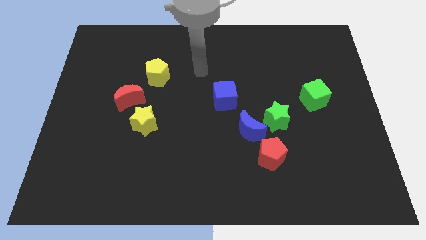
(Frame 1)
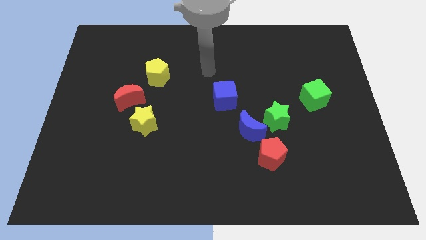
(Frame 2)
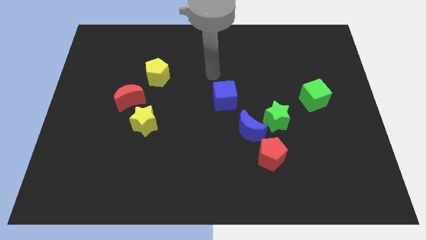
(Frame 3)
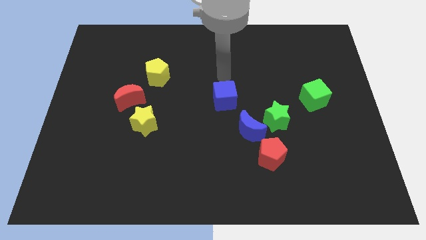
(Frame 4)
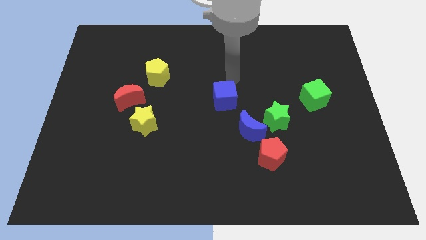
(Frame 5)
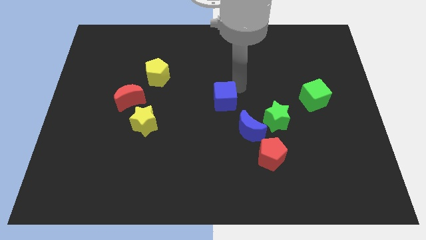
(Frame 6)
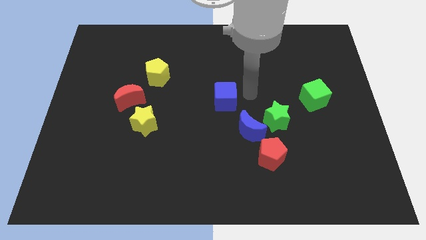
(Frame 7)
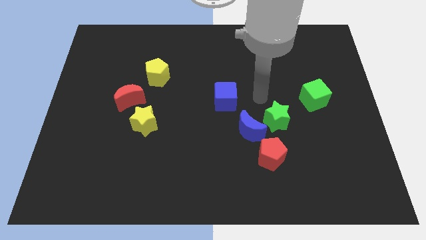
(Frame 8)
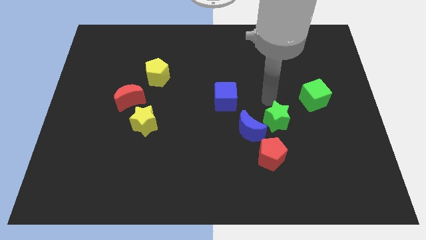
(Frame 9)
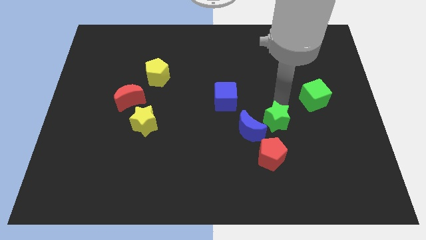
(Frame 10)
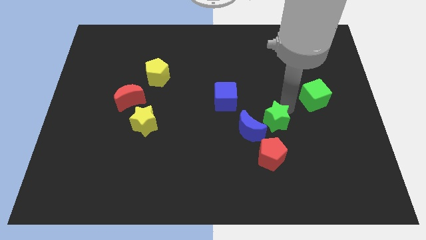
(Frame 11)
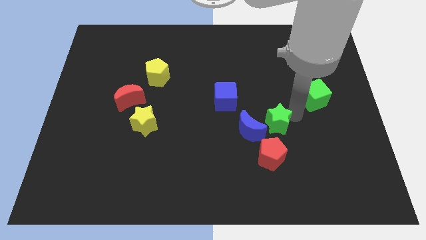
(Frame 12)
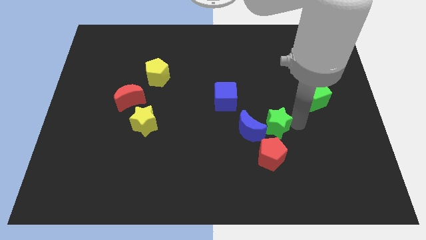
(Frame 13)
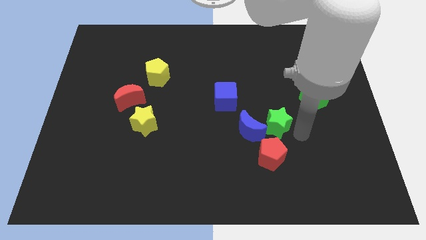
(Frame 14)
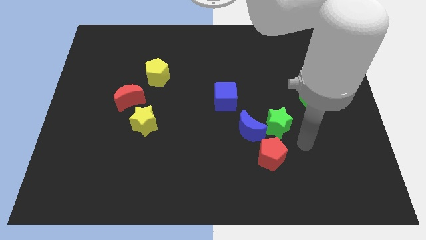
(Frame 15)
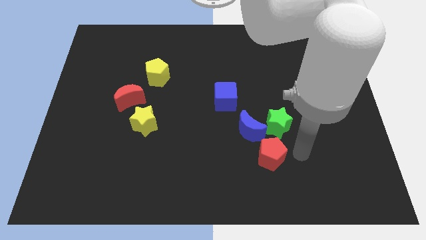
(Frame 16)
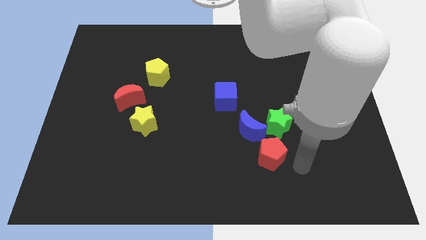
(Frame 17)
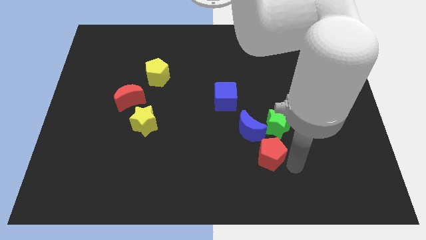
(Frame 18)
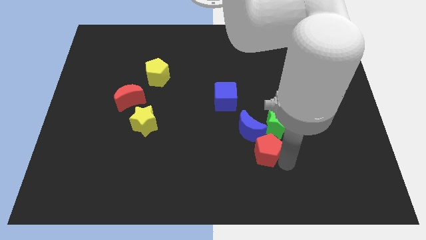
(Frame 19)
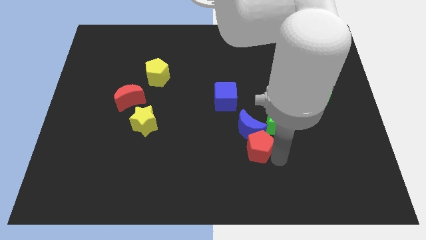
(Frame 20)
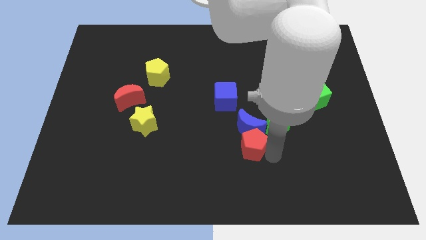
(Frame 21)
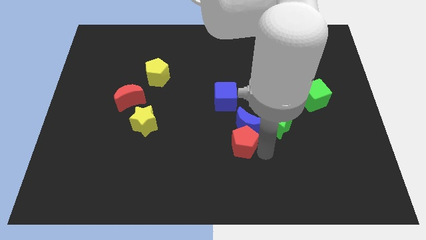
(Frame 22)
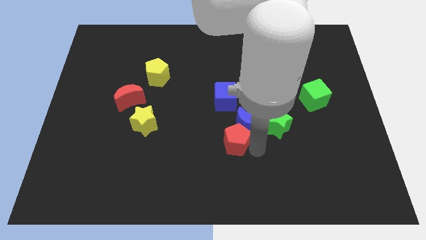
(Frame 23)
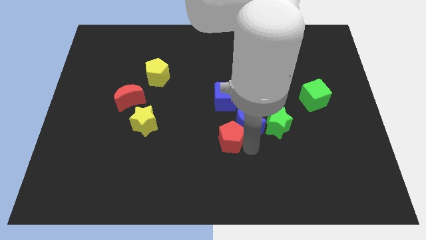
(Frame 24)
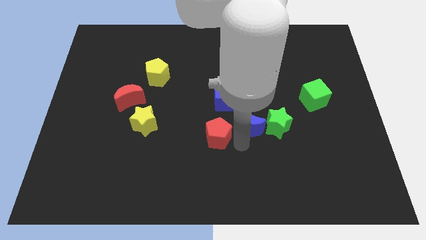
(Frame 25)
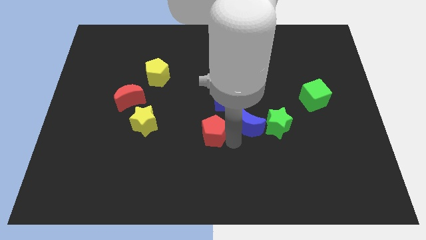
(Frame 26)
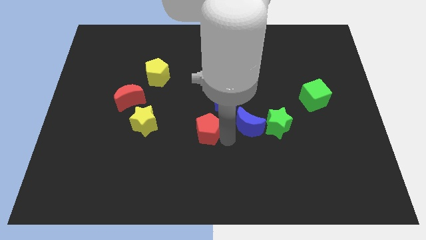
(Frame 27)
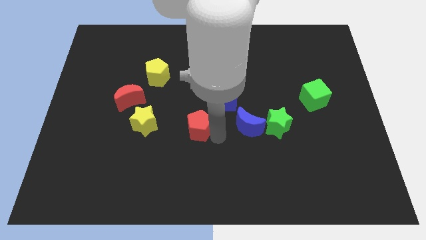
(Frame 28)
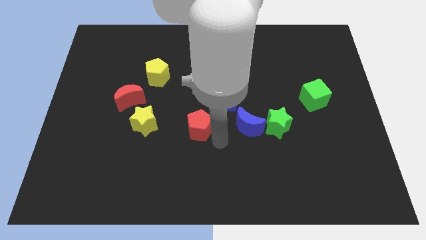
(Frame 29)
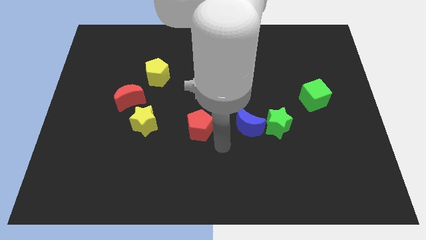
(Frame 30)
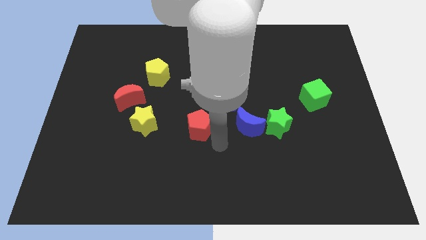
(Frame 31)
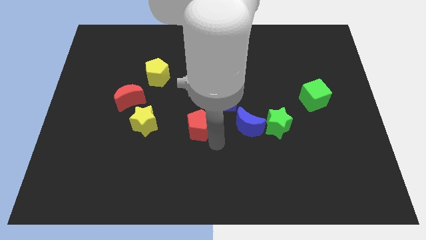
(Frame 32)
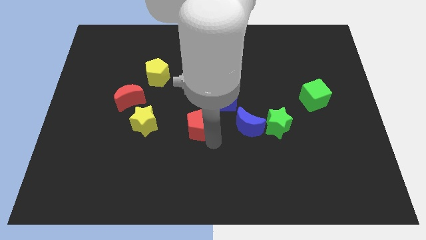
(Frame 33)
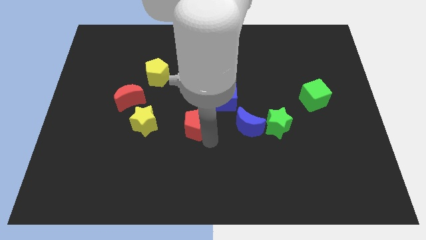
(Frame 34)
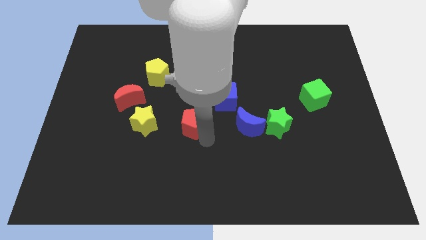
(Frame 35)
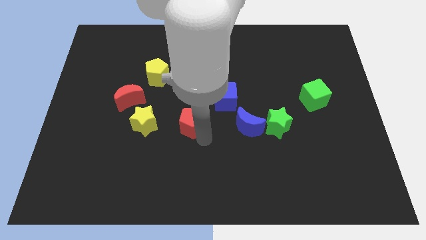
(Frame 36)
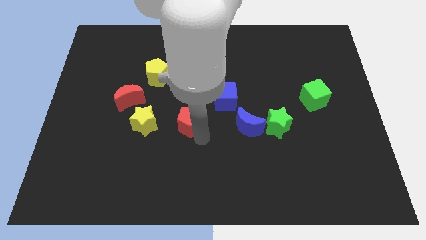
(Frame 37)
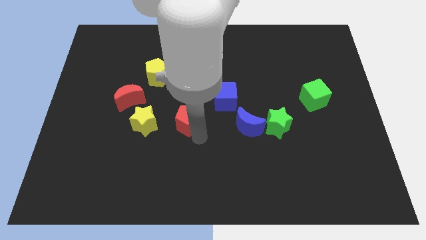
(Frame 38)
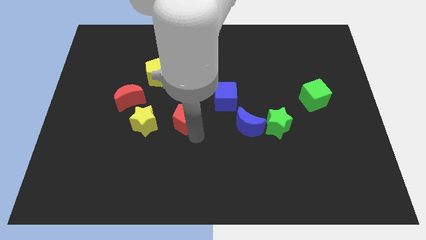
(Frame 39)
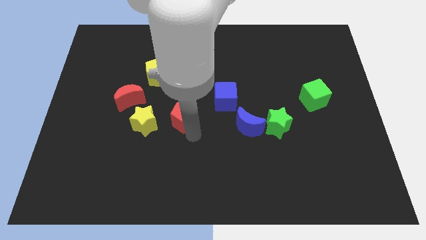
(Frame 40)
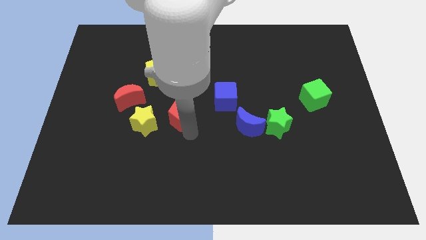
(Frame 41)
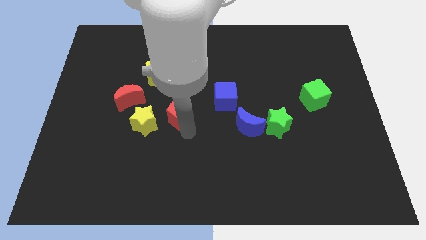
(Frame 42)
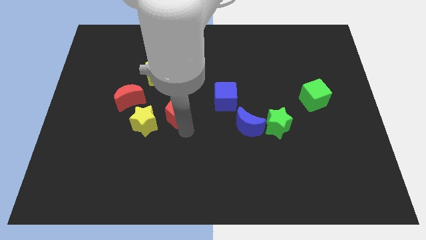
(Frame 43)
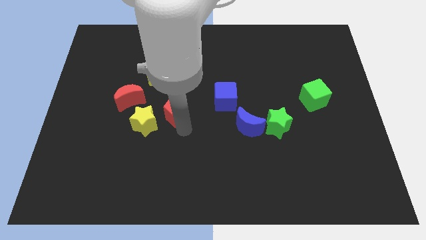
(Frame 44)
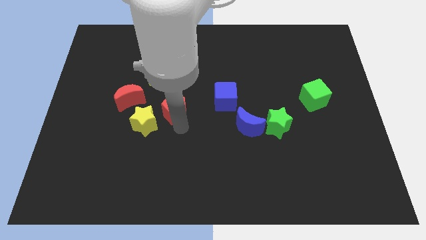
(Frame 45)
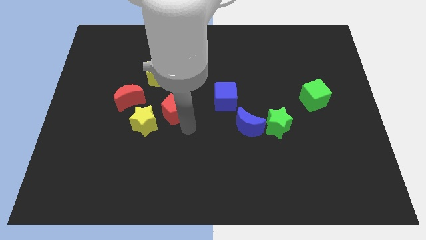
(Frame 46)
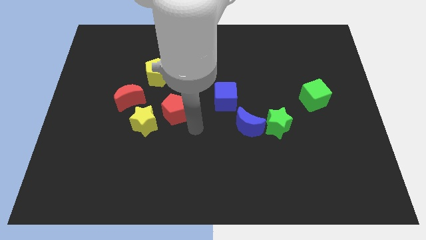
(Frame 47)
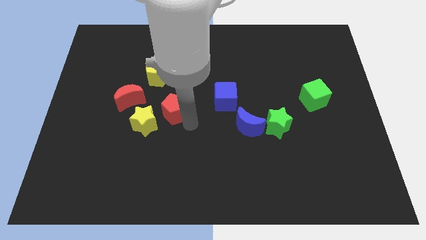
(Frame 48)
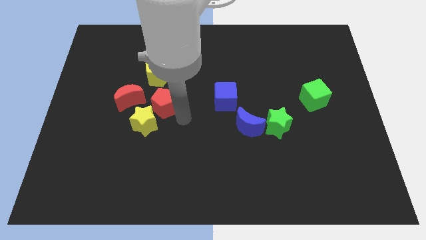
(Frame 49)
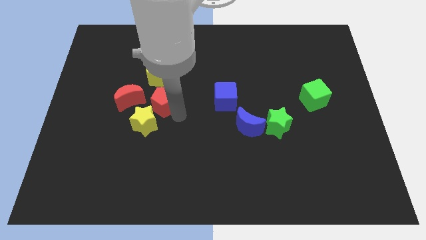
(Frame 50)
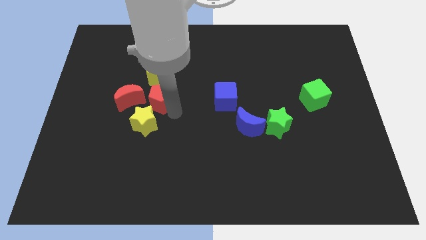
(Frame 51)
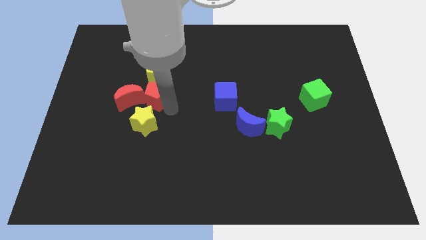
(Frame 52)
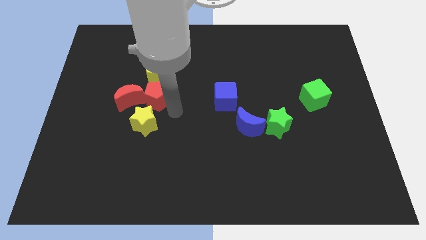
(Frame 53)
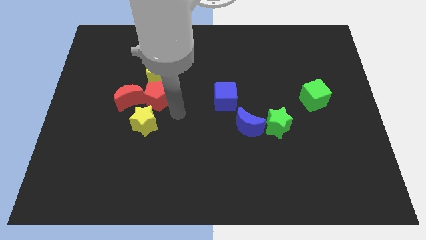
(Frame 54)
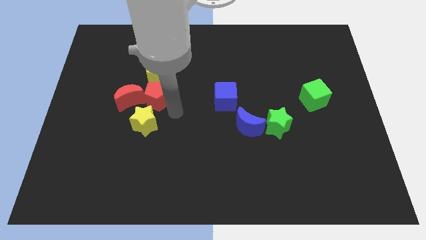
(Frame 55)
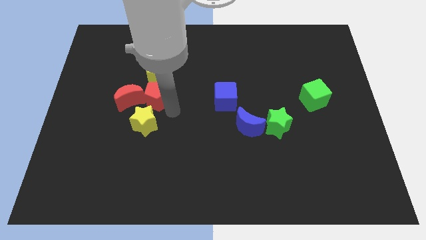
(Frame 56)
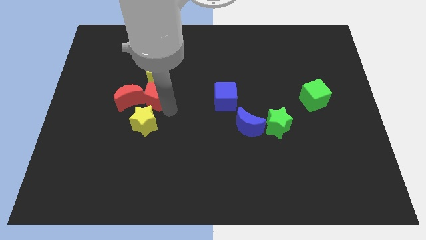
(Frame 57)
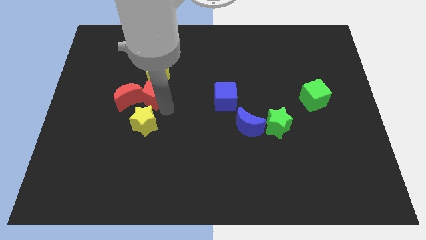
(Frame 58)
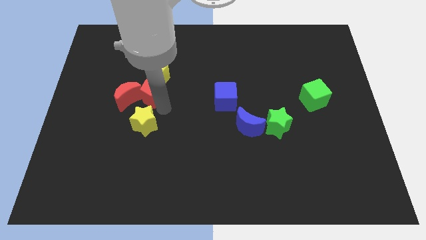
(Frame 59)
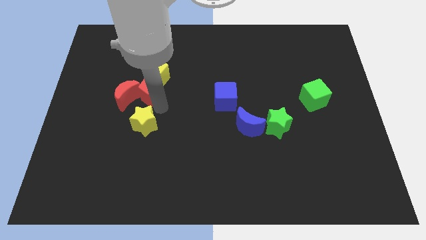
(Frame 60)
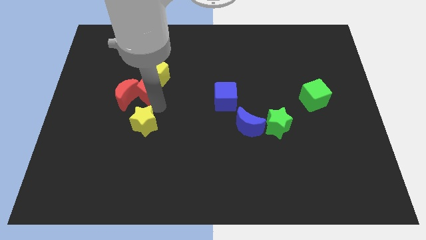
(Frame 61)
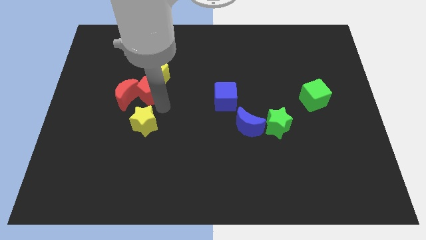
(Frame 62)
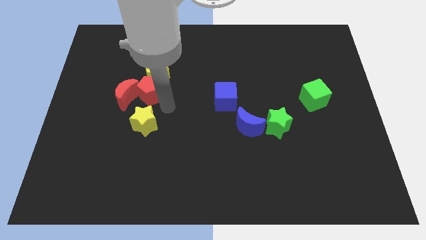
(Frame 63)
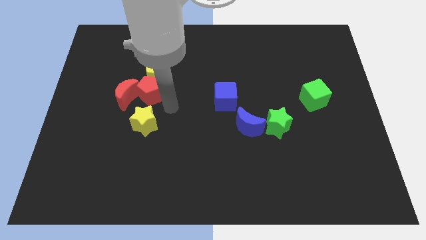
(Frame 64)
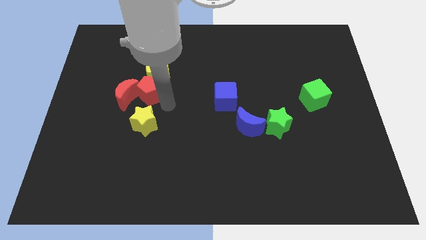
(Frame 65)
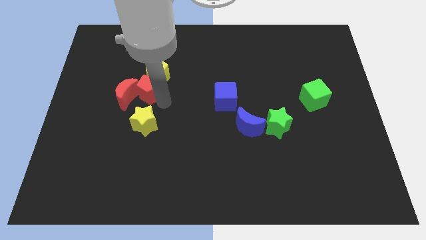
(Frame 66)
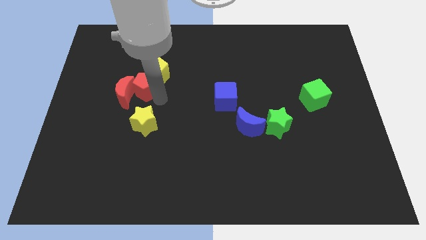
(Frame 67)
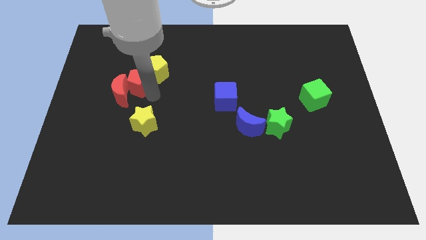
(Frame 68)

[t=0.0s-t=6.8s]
slide the red pentagon above the red moon
